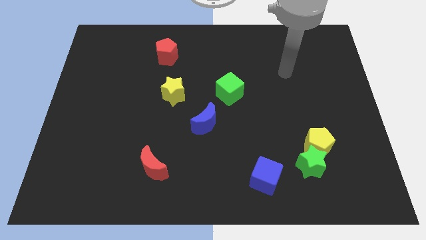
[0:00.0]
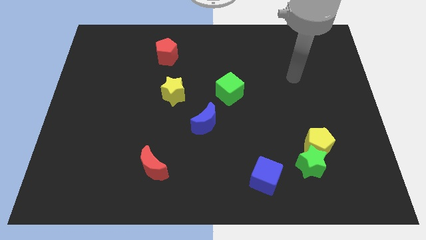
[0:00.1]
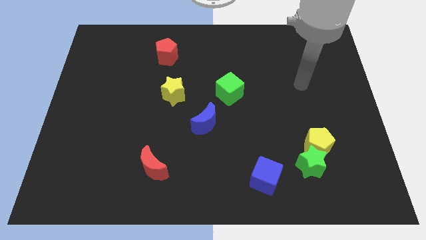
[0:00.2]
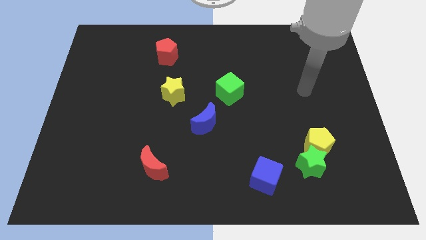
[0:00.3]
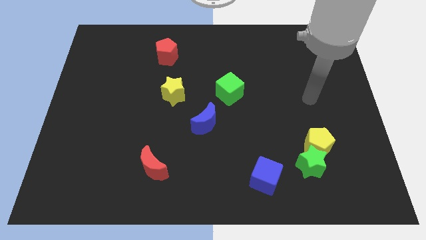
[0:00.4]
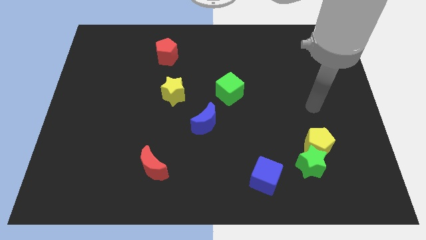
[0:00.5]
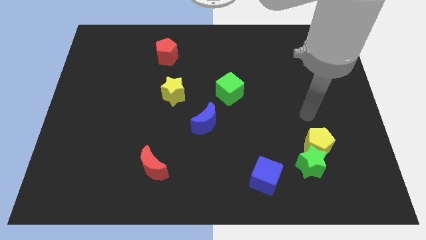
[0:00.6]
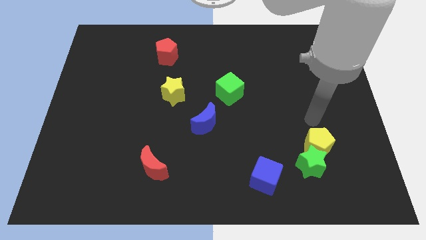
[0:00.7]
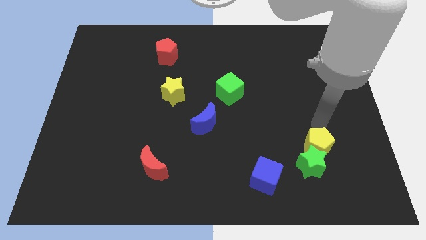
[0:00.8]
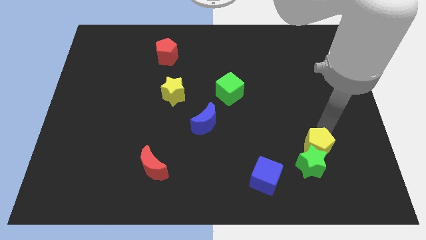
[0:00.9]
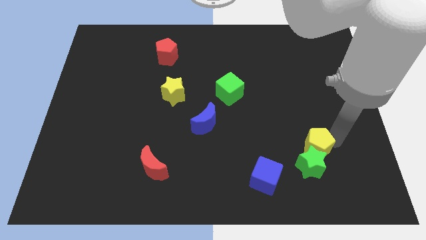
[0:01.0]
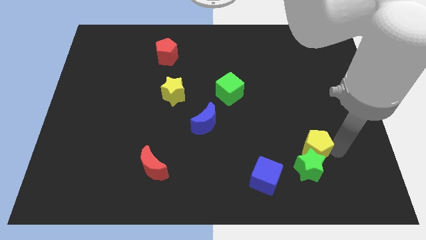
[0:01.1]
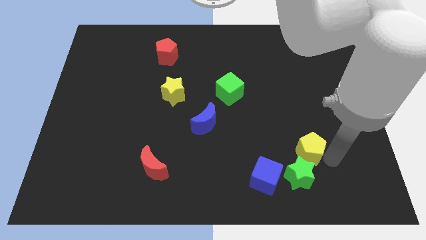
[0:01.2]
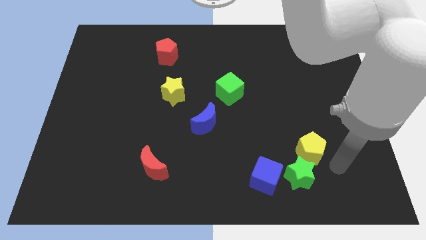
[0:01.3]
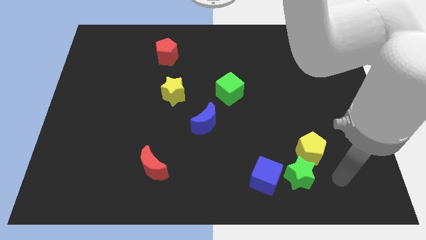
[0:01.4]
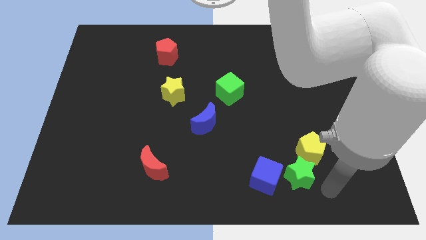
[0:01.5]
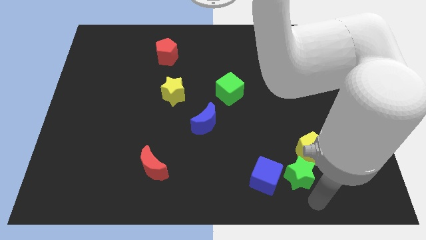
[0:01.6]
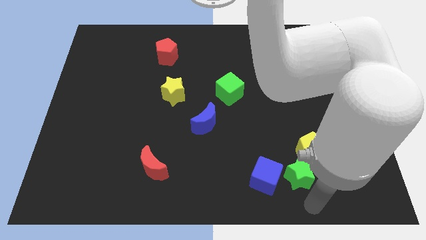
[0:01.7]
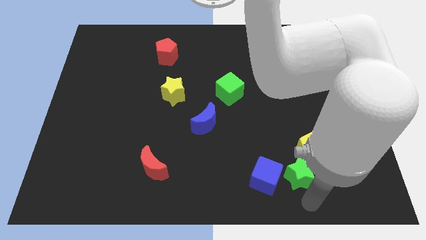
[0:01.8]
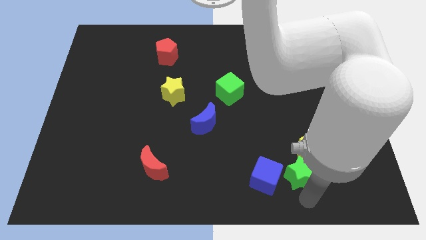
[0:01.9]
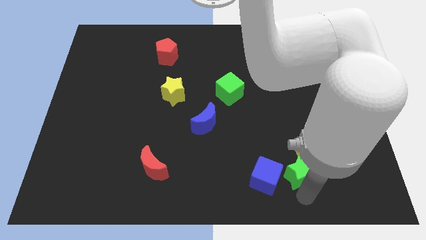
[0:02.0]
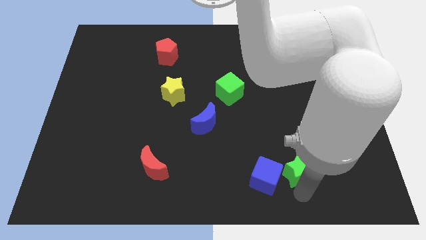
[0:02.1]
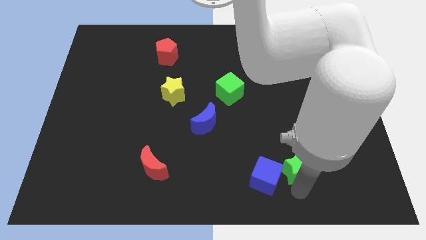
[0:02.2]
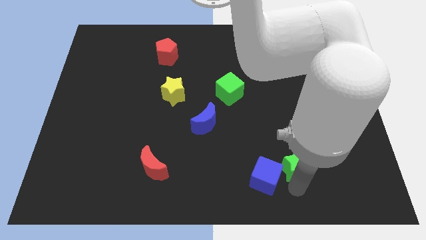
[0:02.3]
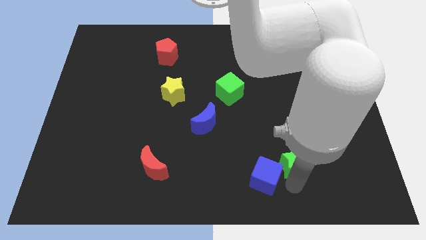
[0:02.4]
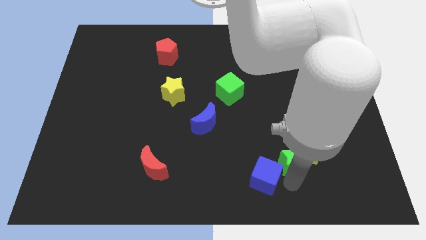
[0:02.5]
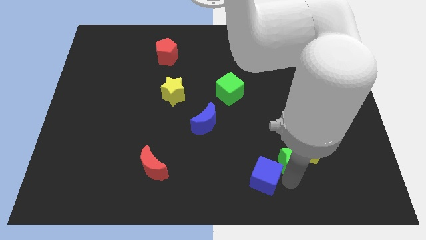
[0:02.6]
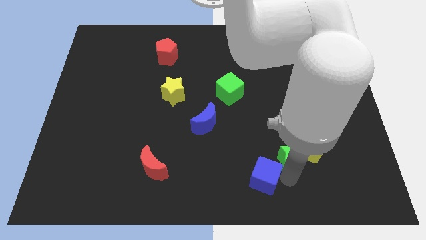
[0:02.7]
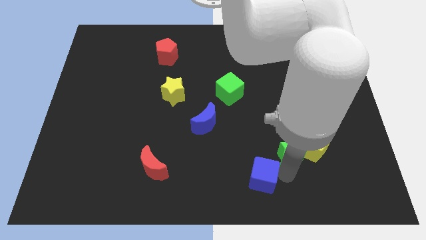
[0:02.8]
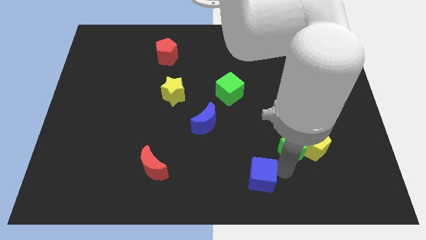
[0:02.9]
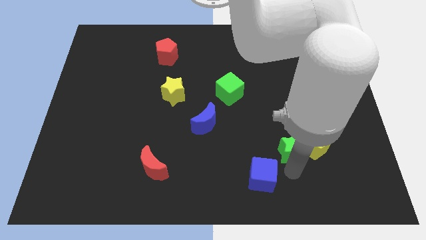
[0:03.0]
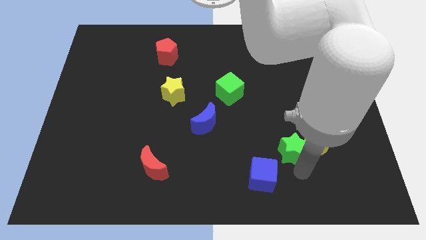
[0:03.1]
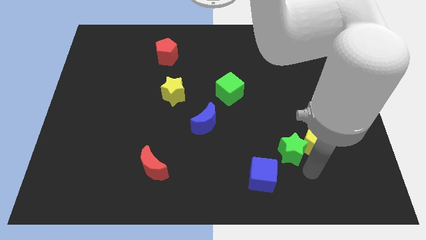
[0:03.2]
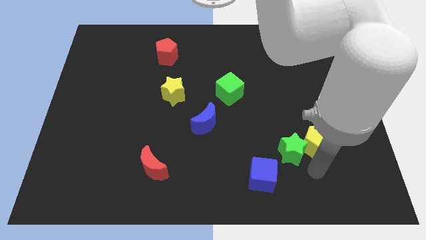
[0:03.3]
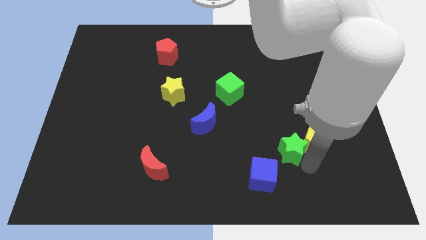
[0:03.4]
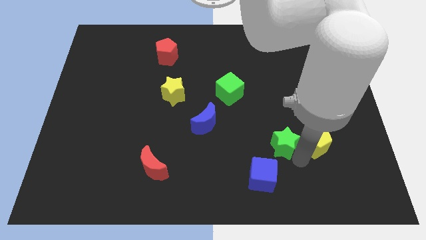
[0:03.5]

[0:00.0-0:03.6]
slide the green star diagonally upwards and left a bit

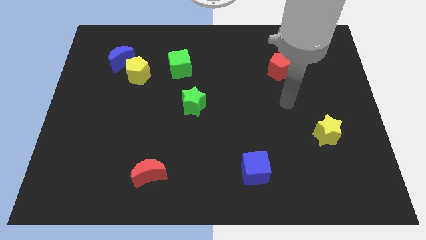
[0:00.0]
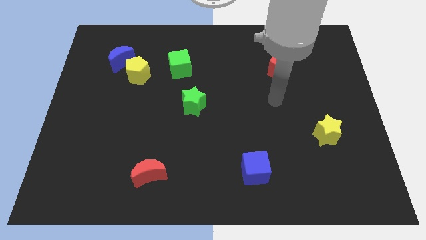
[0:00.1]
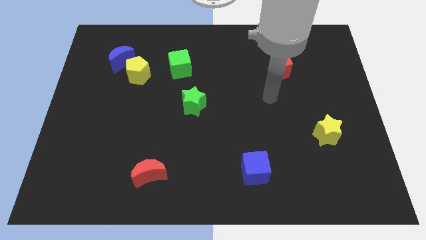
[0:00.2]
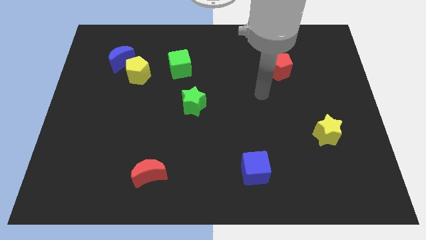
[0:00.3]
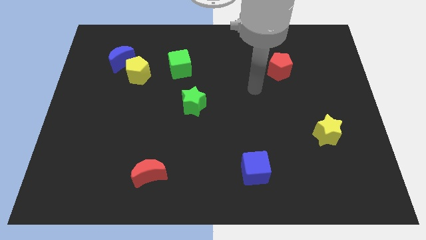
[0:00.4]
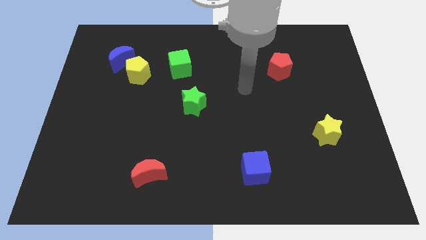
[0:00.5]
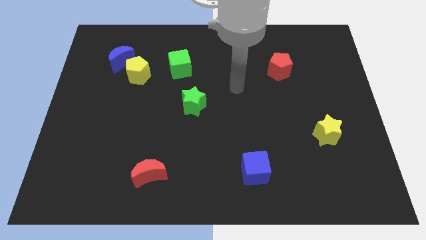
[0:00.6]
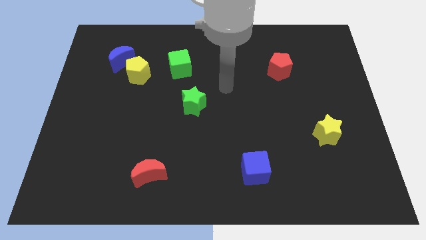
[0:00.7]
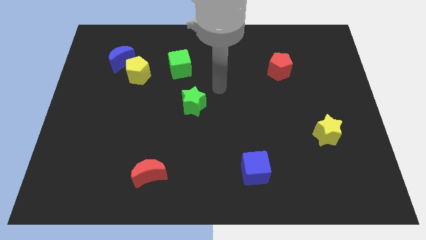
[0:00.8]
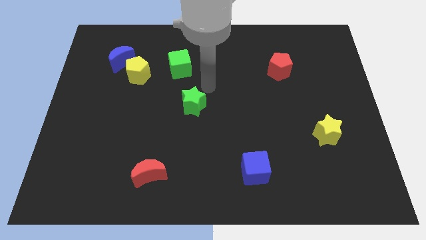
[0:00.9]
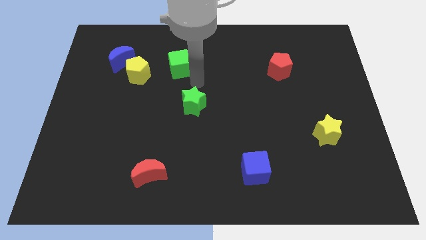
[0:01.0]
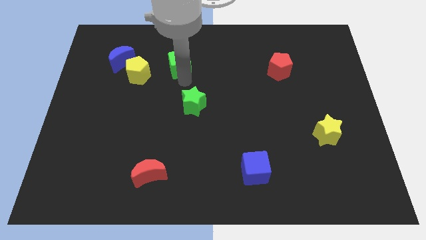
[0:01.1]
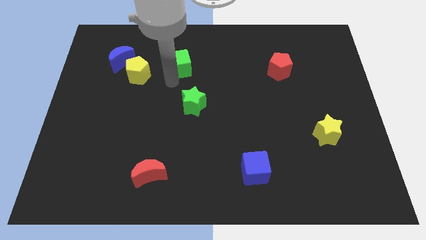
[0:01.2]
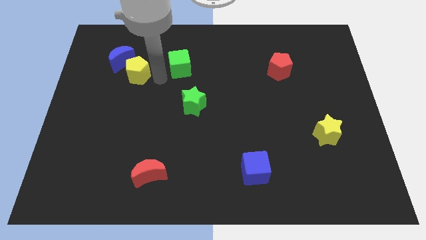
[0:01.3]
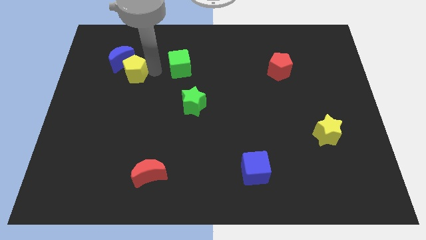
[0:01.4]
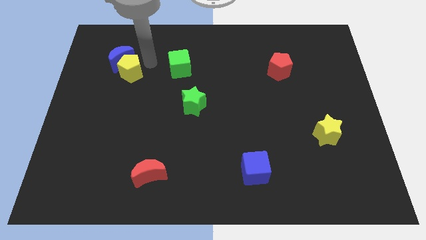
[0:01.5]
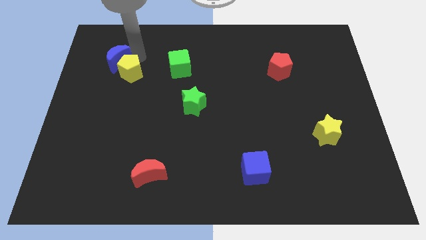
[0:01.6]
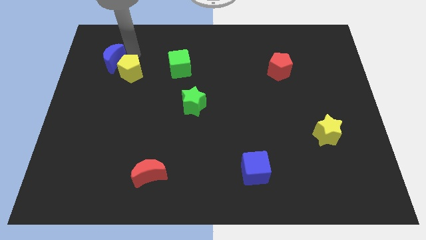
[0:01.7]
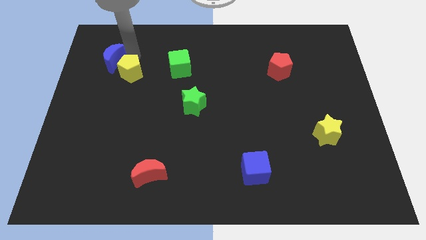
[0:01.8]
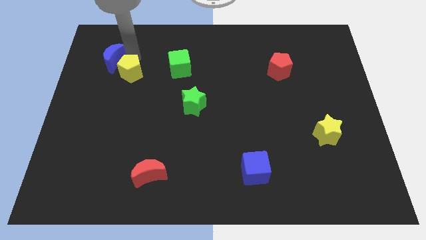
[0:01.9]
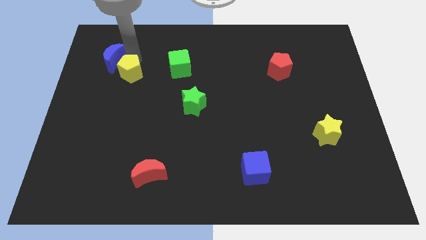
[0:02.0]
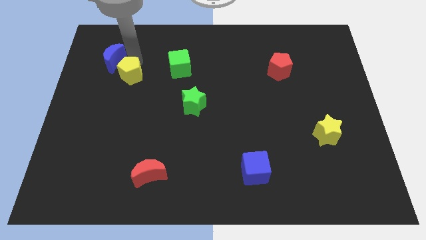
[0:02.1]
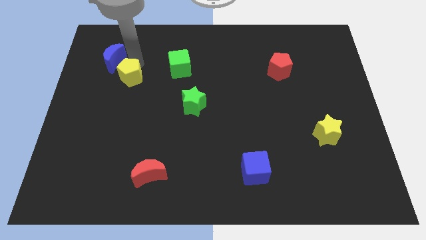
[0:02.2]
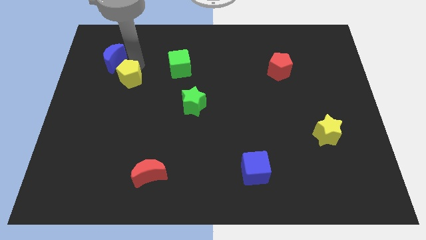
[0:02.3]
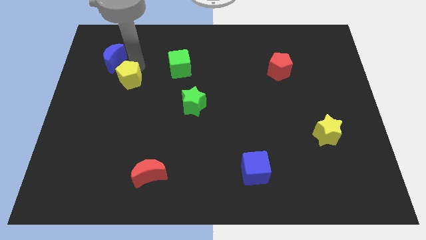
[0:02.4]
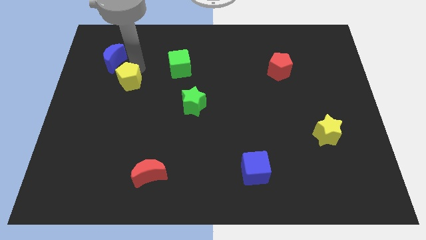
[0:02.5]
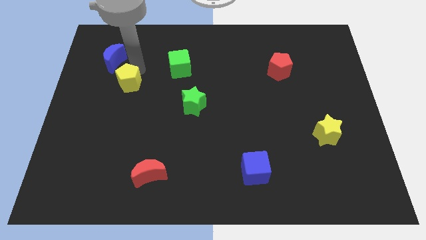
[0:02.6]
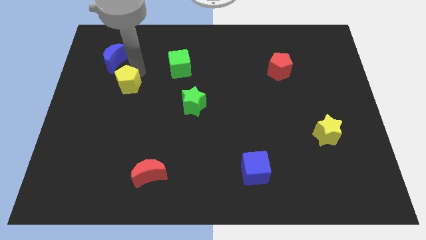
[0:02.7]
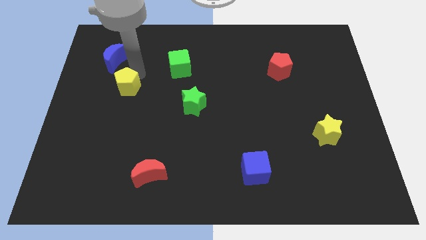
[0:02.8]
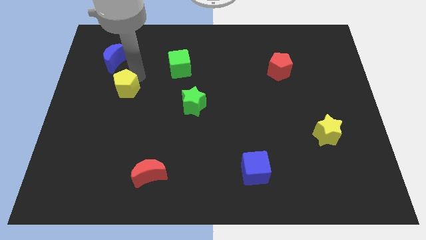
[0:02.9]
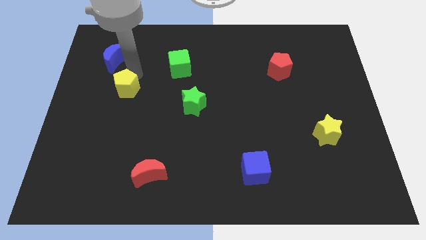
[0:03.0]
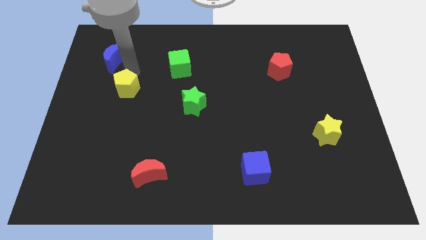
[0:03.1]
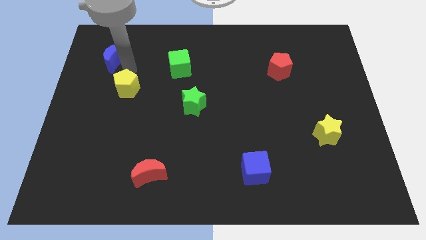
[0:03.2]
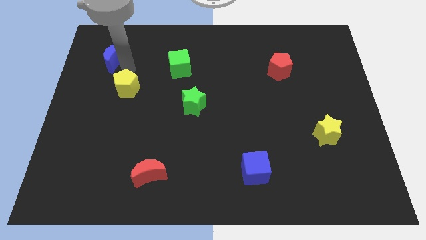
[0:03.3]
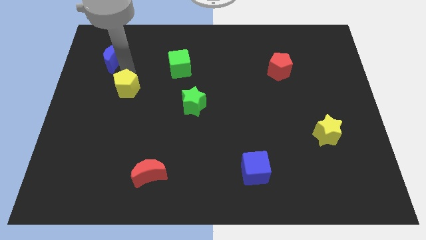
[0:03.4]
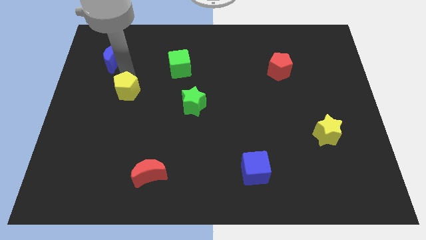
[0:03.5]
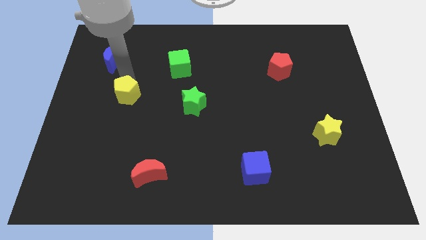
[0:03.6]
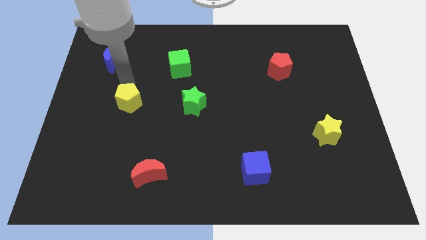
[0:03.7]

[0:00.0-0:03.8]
move the yellow pentagon a little bit downwards
